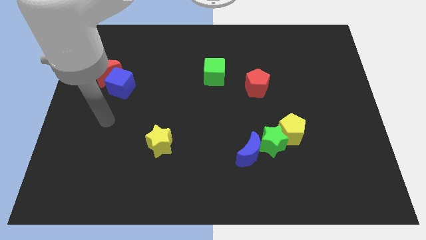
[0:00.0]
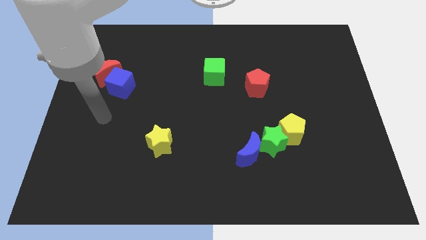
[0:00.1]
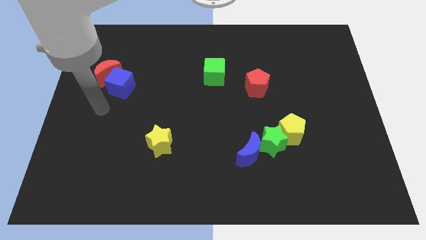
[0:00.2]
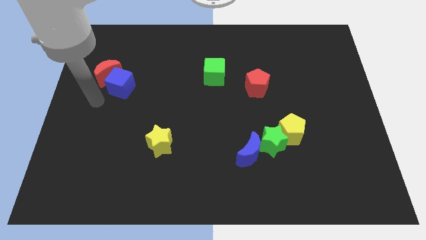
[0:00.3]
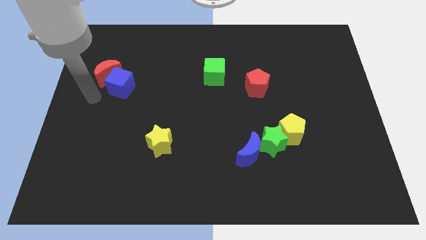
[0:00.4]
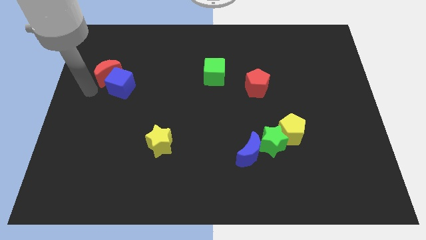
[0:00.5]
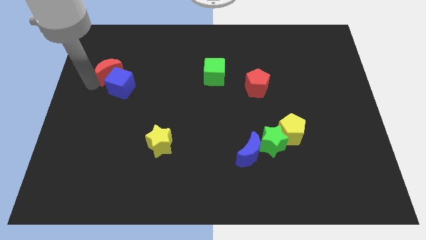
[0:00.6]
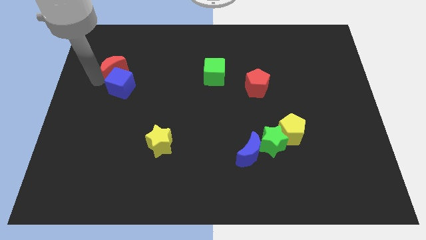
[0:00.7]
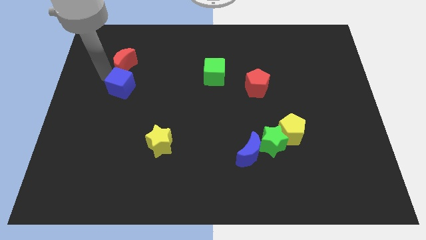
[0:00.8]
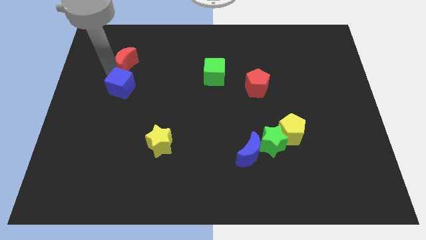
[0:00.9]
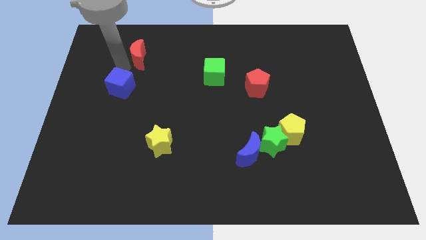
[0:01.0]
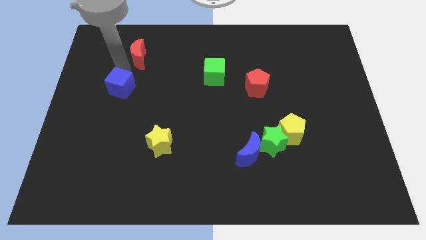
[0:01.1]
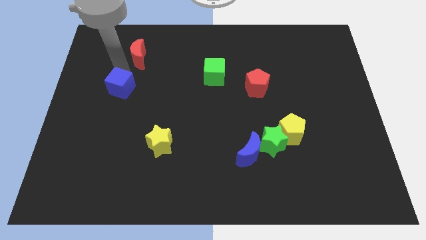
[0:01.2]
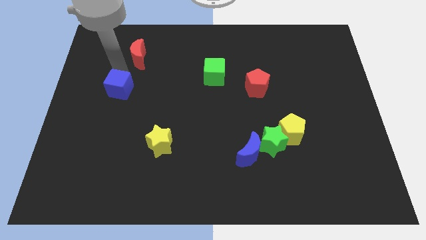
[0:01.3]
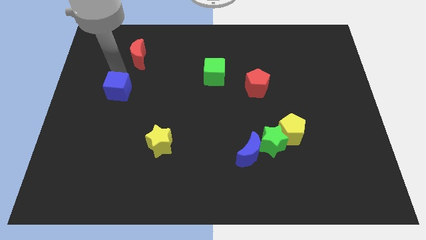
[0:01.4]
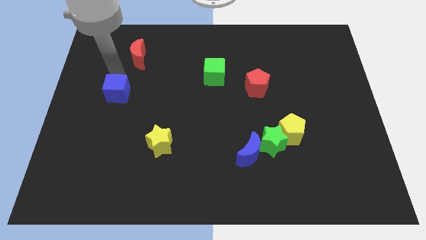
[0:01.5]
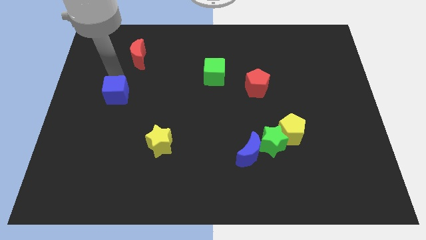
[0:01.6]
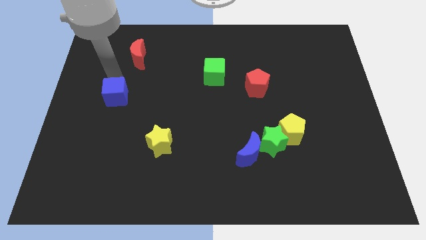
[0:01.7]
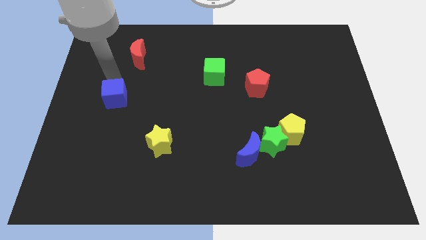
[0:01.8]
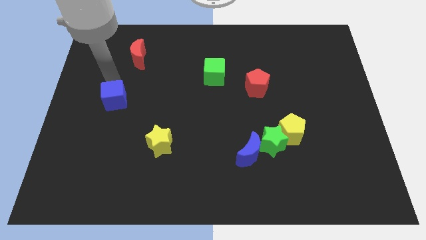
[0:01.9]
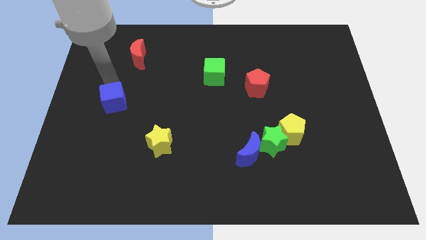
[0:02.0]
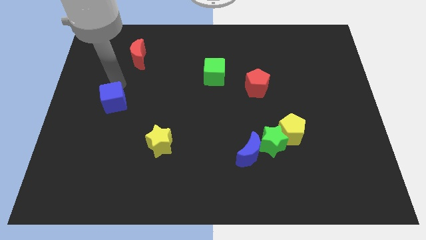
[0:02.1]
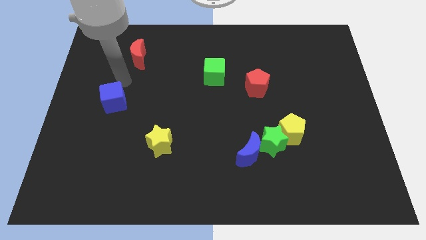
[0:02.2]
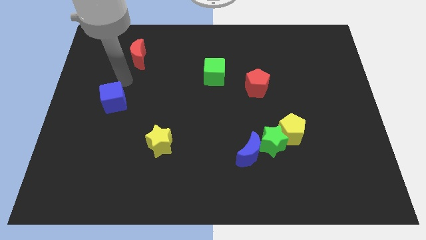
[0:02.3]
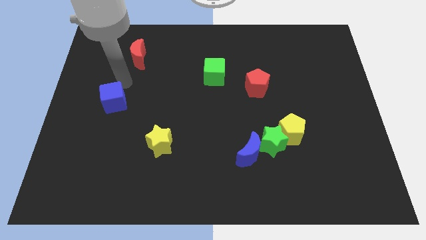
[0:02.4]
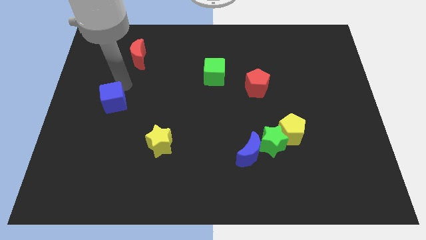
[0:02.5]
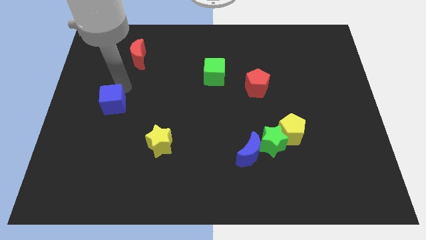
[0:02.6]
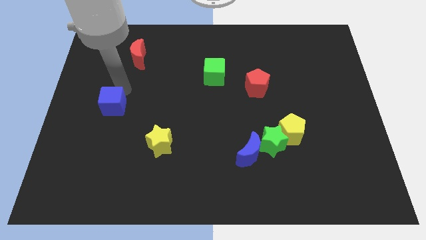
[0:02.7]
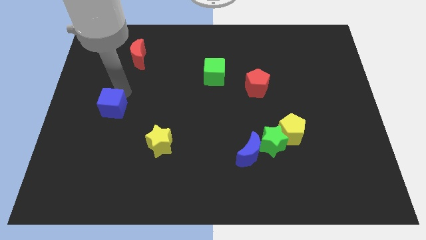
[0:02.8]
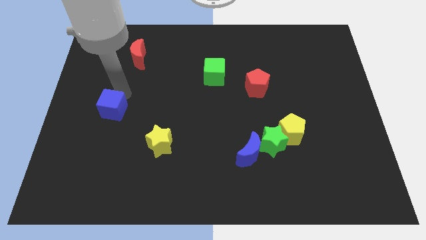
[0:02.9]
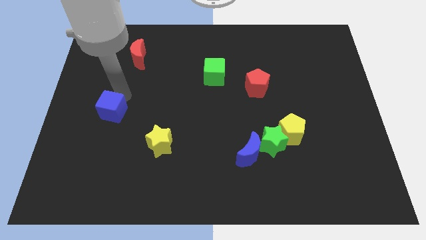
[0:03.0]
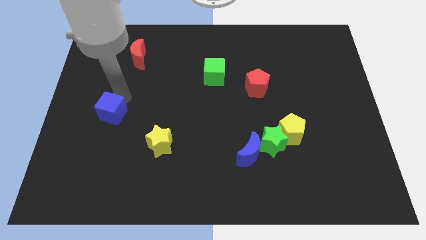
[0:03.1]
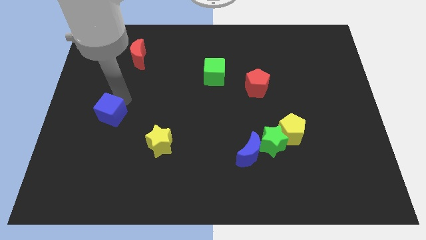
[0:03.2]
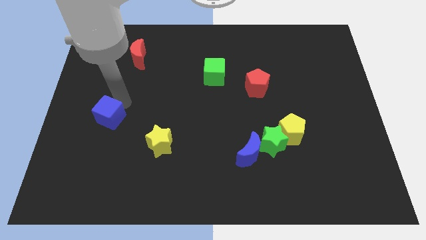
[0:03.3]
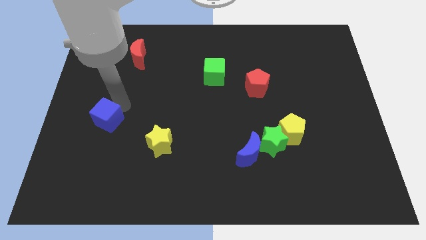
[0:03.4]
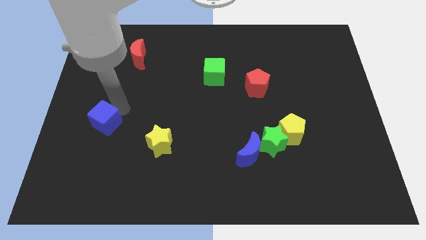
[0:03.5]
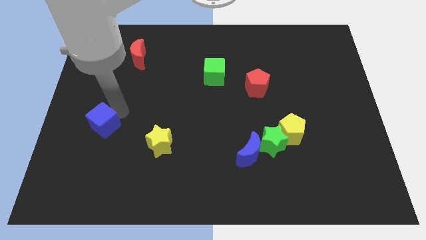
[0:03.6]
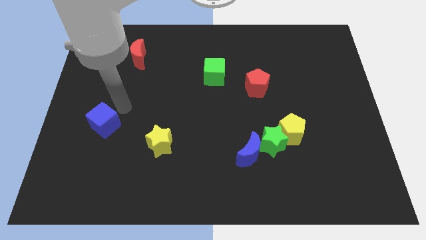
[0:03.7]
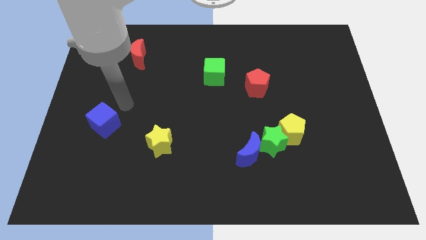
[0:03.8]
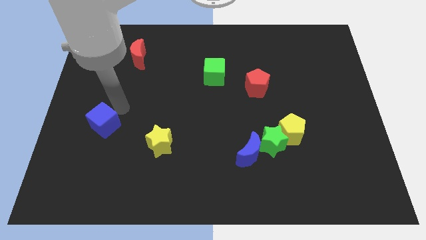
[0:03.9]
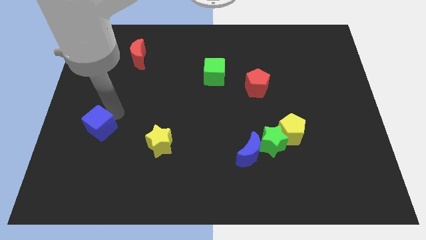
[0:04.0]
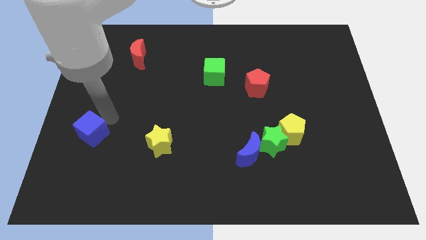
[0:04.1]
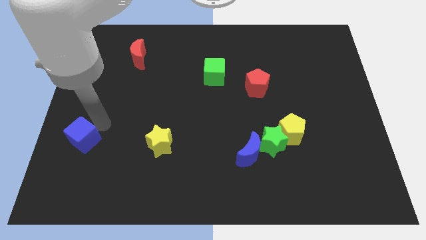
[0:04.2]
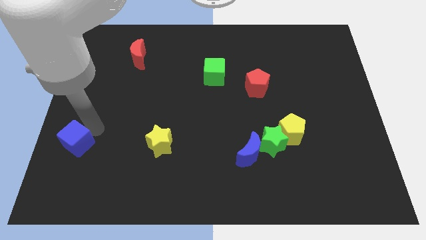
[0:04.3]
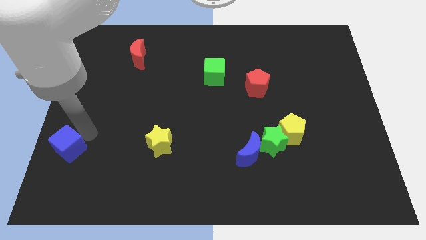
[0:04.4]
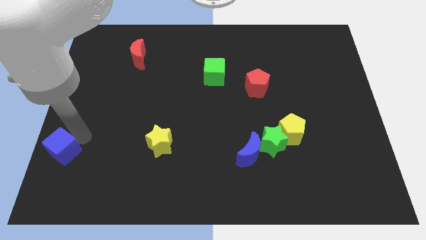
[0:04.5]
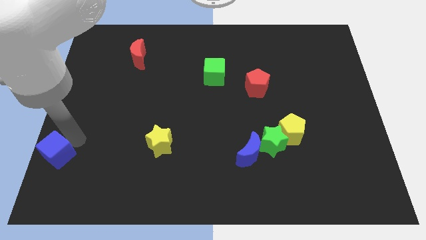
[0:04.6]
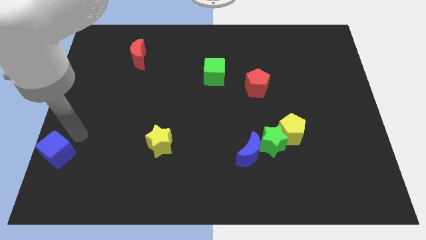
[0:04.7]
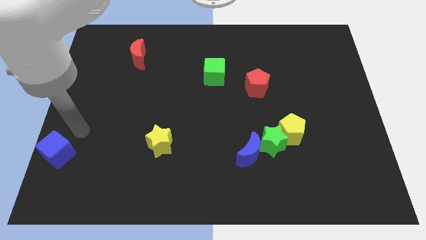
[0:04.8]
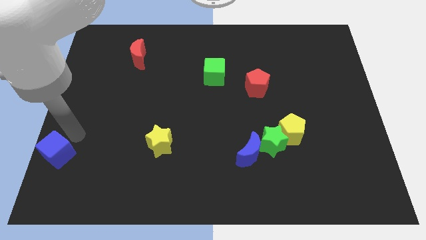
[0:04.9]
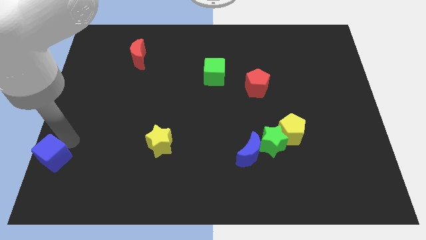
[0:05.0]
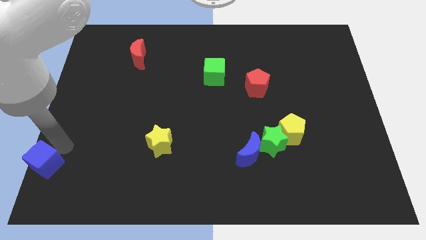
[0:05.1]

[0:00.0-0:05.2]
put the blue cube to the bottom left of the board

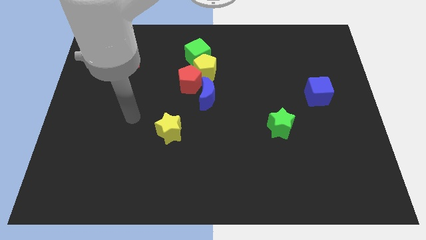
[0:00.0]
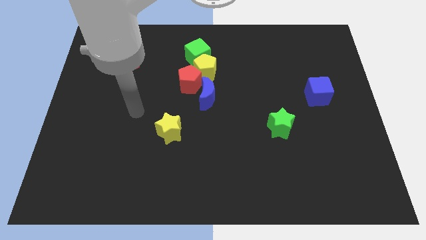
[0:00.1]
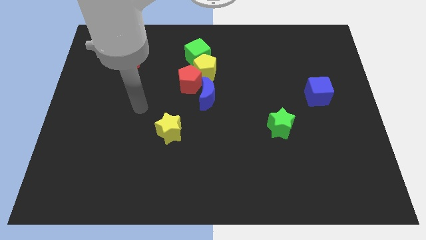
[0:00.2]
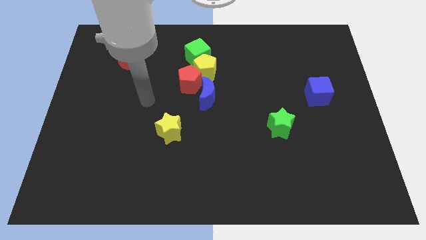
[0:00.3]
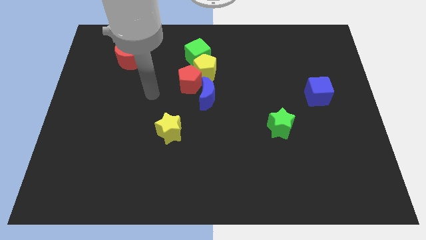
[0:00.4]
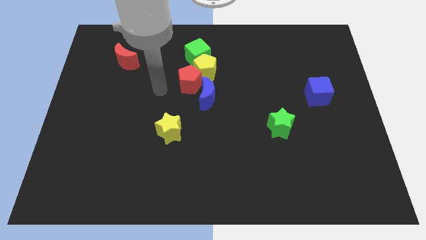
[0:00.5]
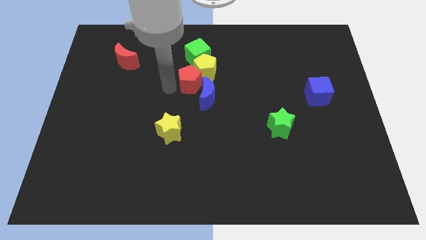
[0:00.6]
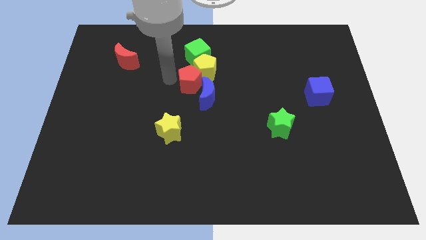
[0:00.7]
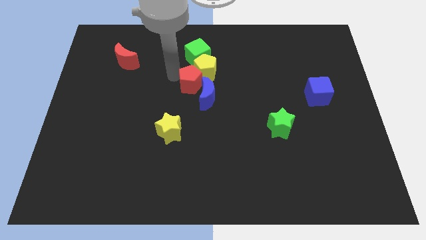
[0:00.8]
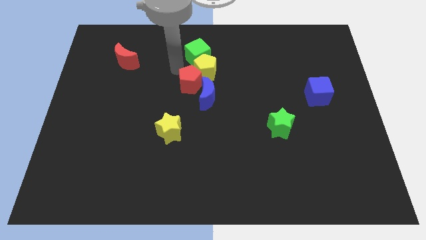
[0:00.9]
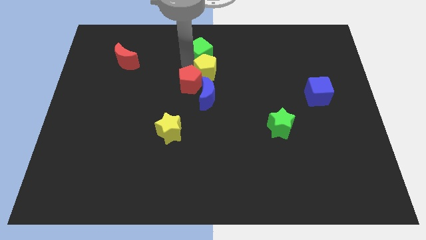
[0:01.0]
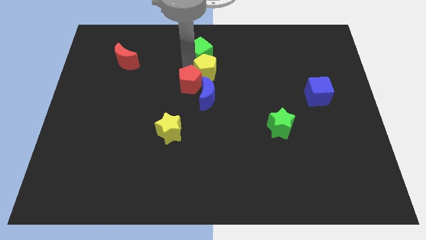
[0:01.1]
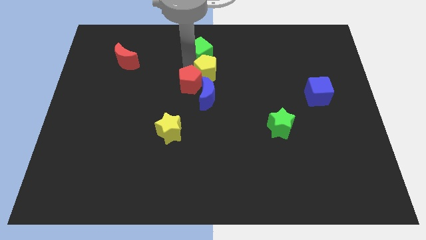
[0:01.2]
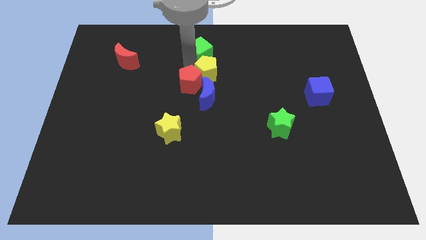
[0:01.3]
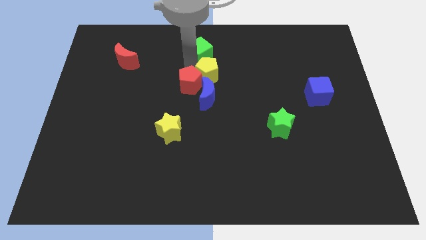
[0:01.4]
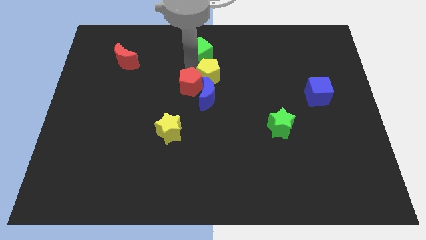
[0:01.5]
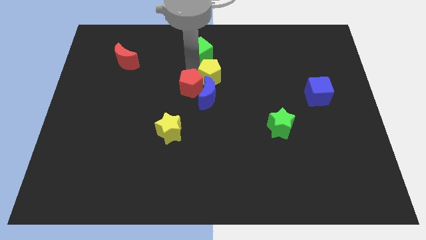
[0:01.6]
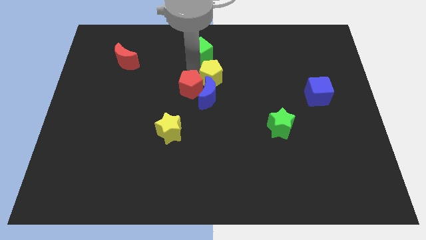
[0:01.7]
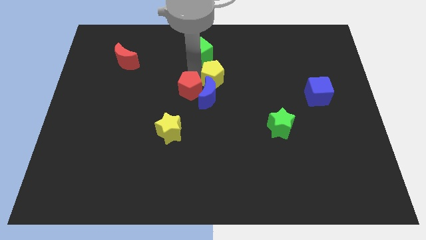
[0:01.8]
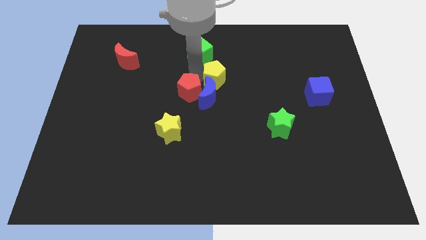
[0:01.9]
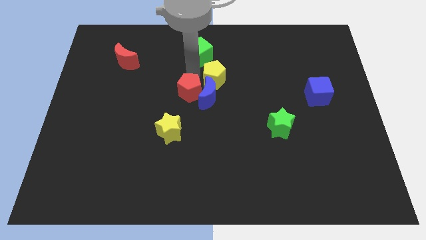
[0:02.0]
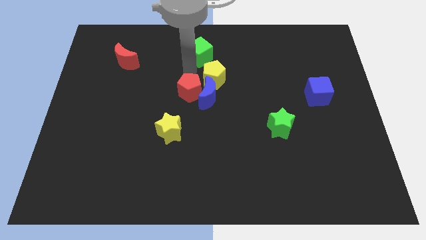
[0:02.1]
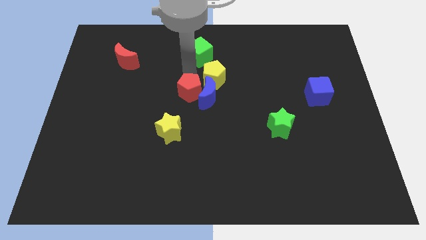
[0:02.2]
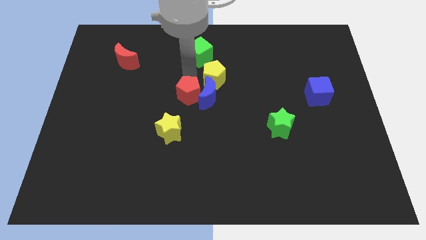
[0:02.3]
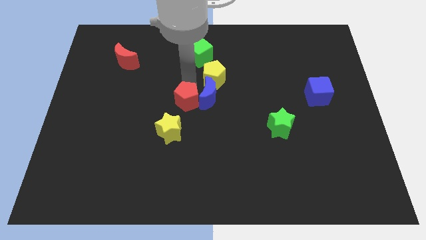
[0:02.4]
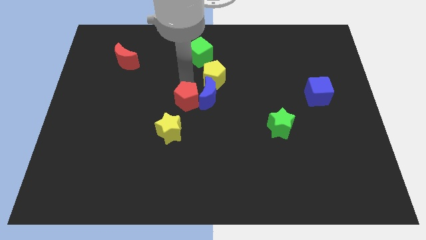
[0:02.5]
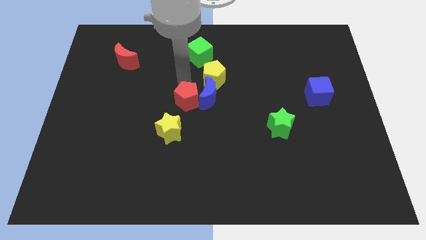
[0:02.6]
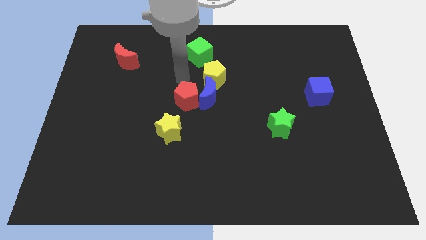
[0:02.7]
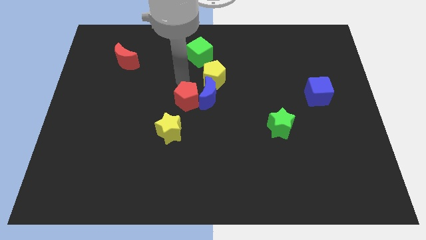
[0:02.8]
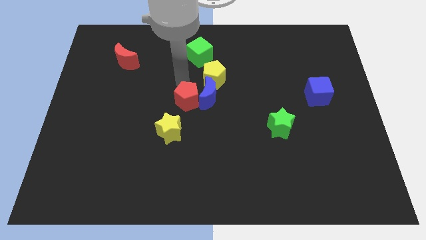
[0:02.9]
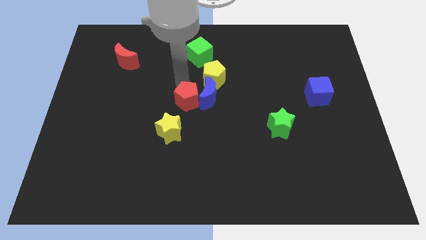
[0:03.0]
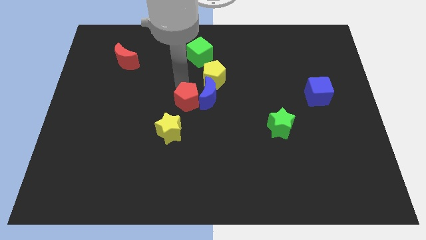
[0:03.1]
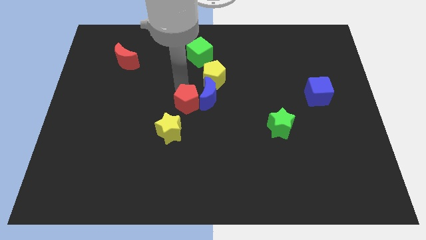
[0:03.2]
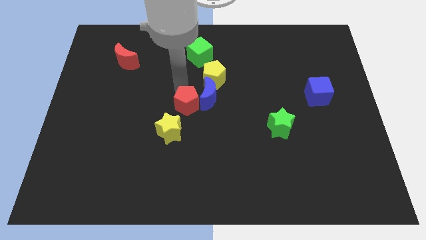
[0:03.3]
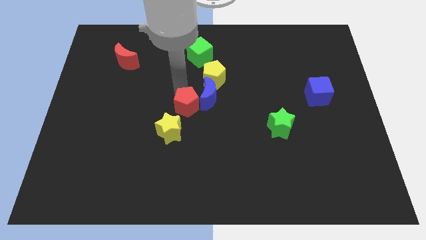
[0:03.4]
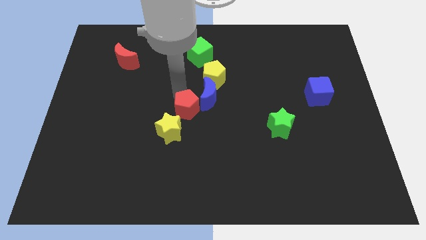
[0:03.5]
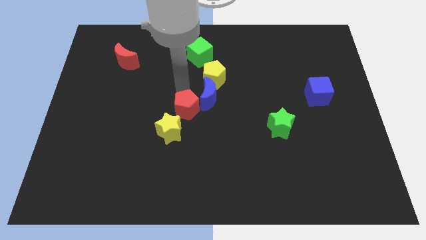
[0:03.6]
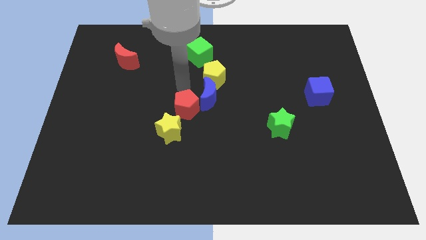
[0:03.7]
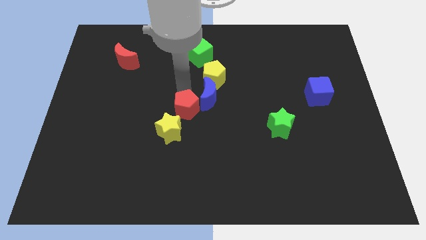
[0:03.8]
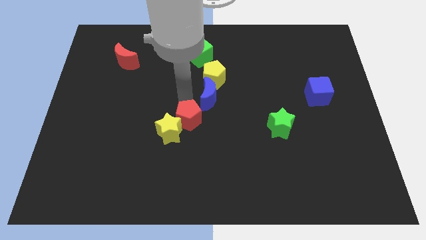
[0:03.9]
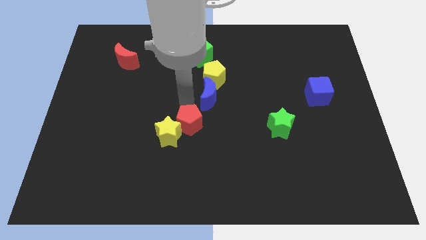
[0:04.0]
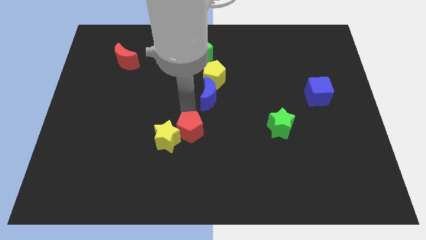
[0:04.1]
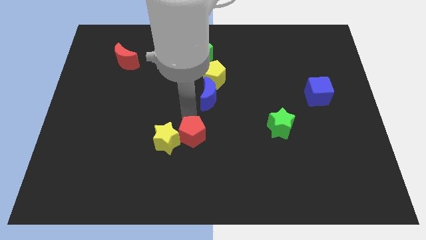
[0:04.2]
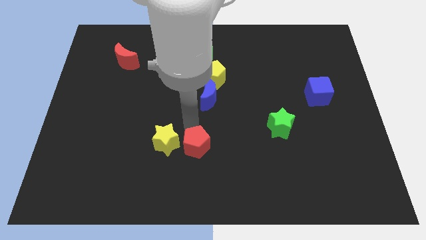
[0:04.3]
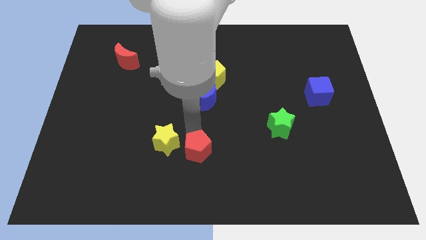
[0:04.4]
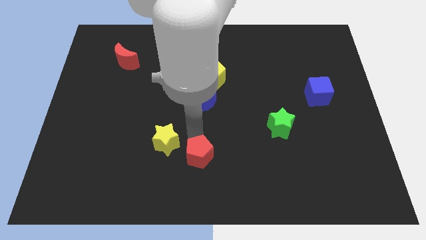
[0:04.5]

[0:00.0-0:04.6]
push the red pentagon to the bottom
